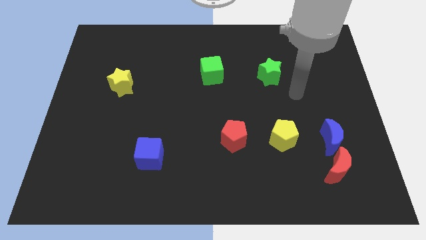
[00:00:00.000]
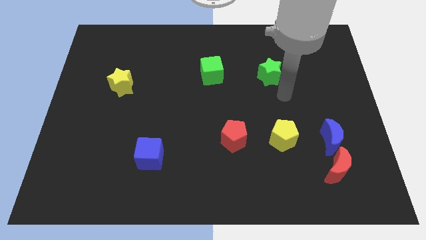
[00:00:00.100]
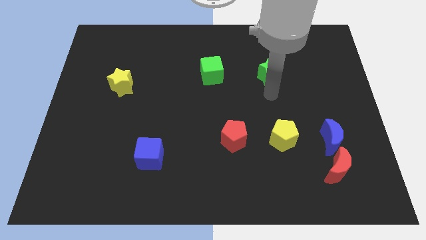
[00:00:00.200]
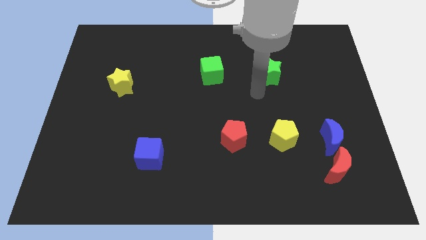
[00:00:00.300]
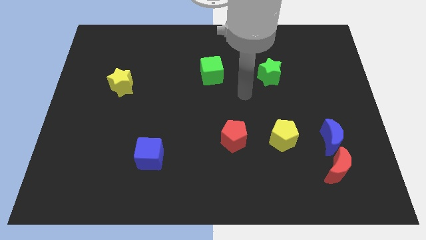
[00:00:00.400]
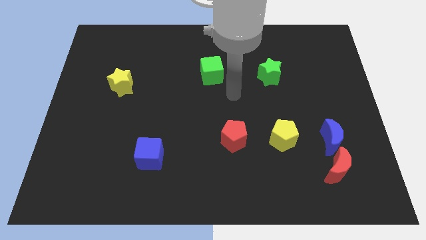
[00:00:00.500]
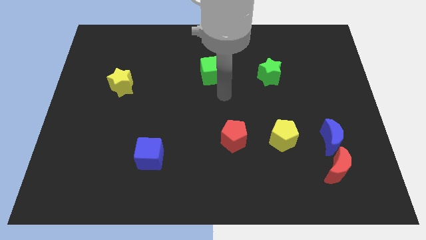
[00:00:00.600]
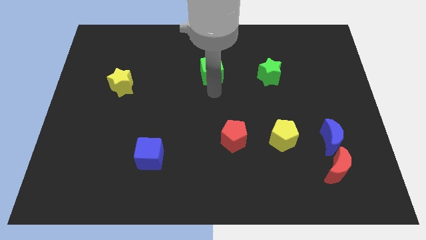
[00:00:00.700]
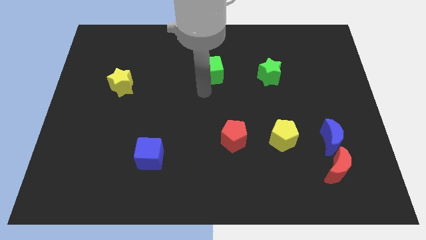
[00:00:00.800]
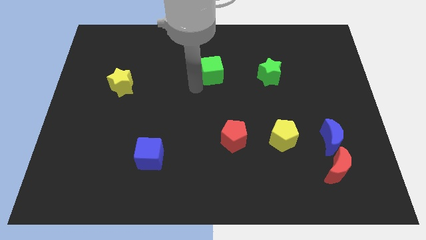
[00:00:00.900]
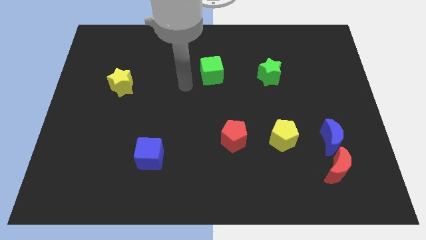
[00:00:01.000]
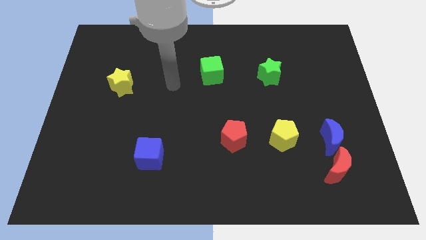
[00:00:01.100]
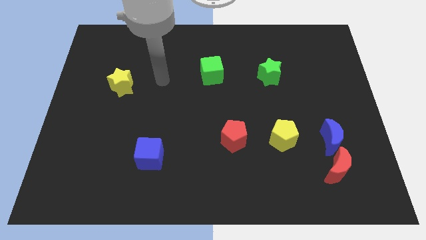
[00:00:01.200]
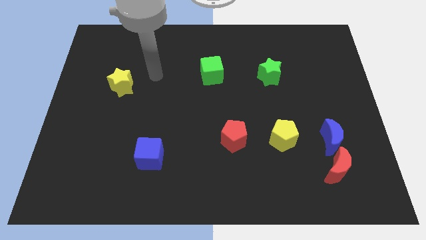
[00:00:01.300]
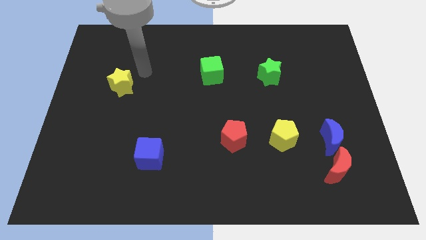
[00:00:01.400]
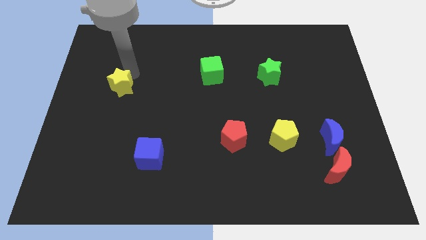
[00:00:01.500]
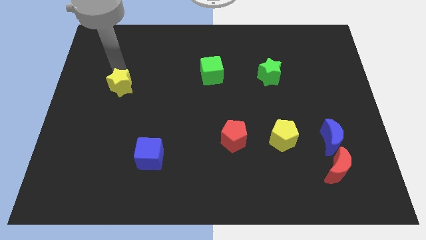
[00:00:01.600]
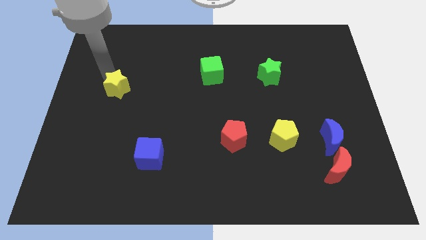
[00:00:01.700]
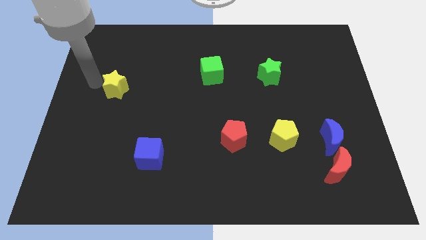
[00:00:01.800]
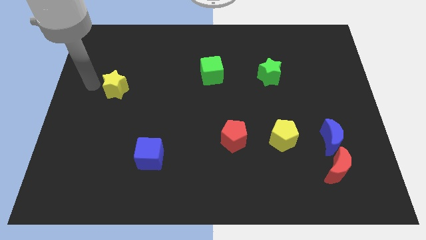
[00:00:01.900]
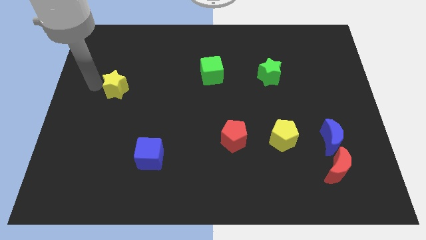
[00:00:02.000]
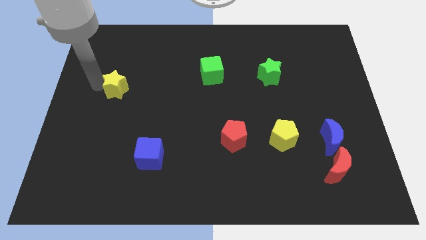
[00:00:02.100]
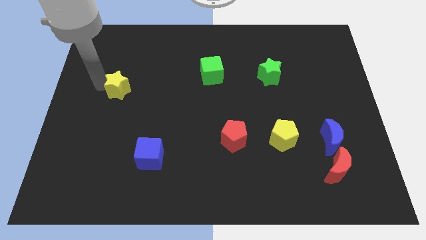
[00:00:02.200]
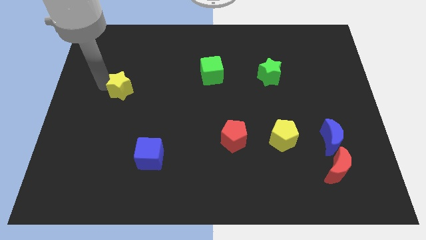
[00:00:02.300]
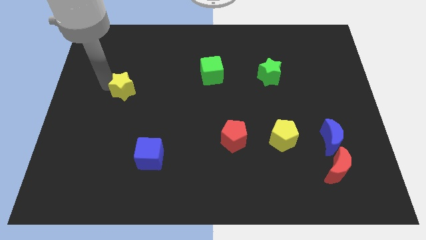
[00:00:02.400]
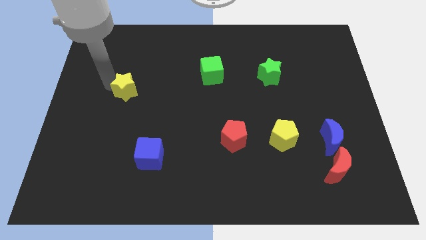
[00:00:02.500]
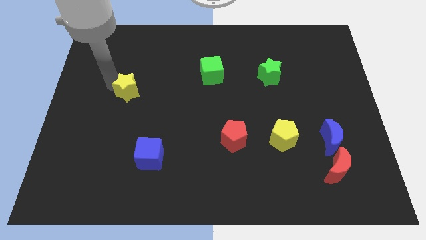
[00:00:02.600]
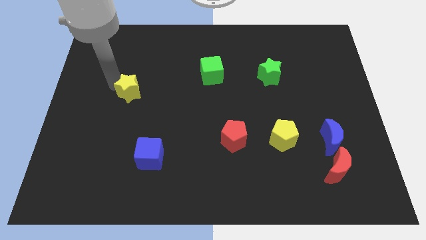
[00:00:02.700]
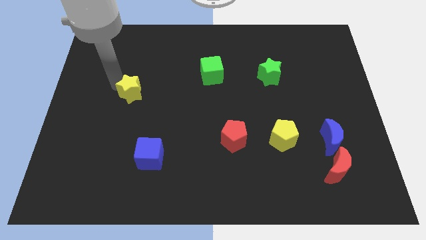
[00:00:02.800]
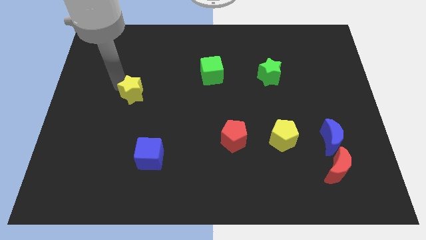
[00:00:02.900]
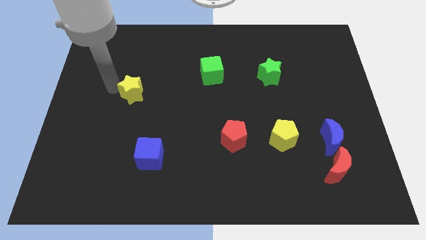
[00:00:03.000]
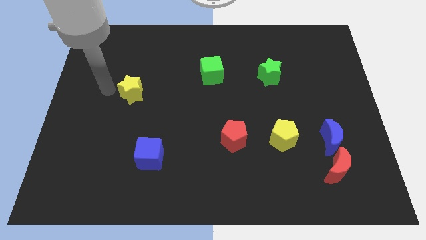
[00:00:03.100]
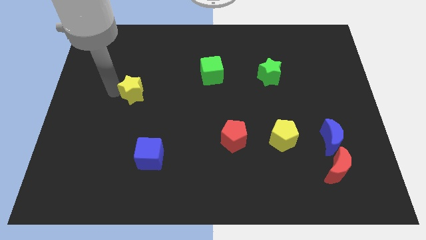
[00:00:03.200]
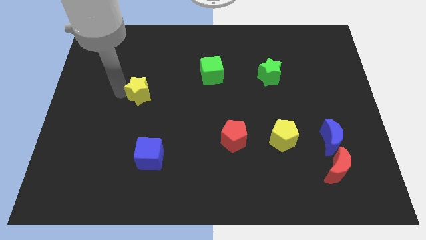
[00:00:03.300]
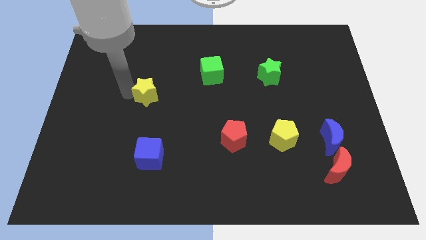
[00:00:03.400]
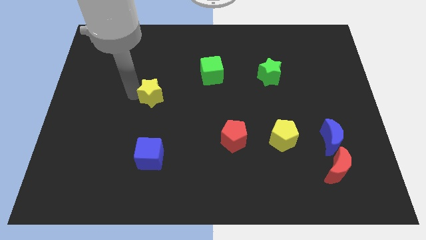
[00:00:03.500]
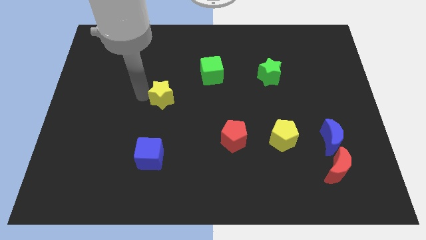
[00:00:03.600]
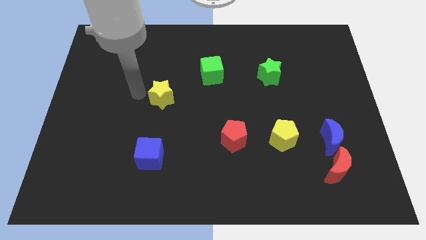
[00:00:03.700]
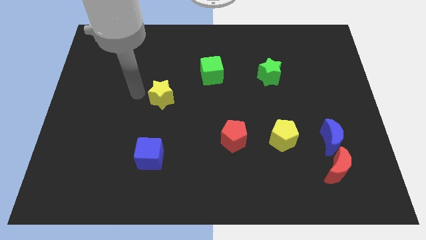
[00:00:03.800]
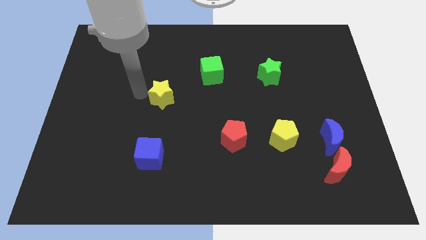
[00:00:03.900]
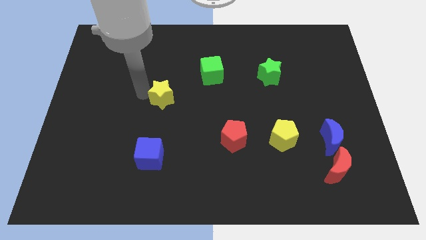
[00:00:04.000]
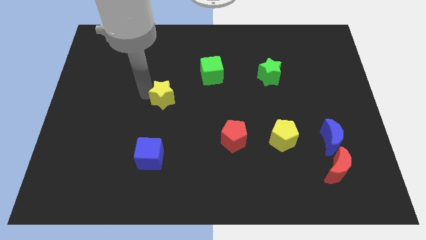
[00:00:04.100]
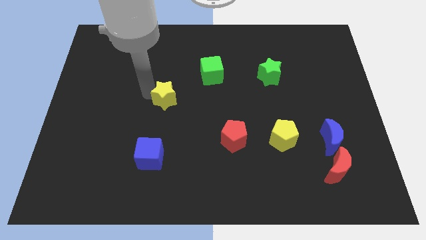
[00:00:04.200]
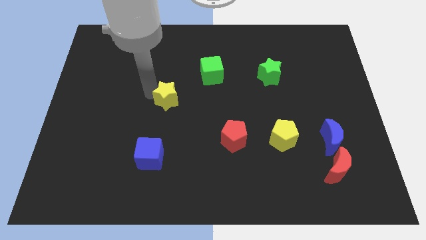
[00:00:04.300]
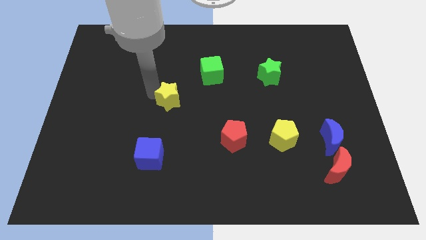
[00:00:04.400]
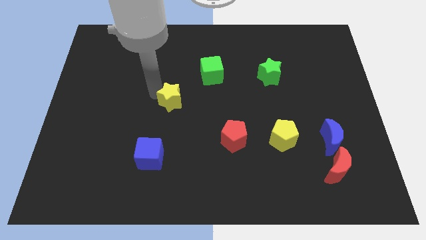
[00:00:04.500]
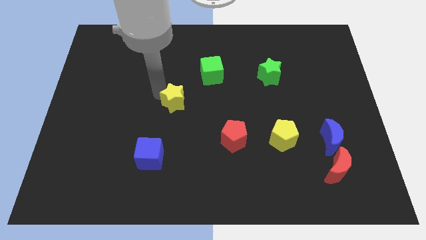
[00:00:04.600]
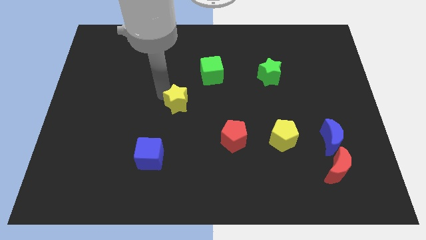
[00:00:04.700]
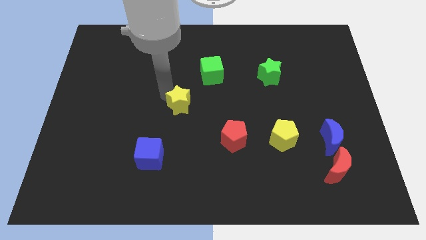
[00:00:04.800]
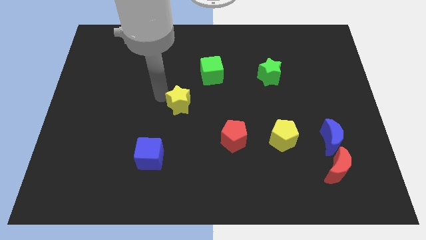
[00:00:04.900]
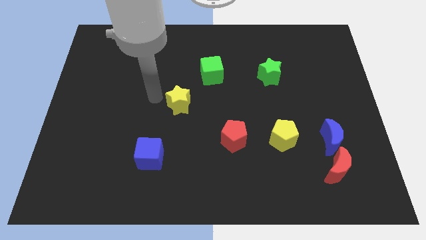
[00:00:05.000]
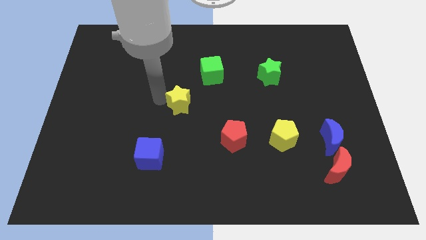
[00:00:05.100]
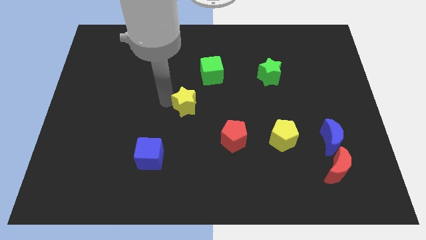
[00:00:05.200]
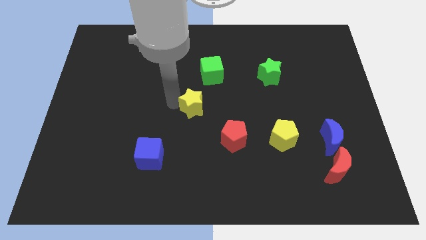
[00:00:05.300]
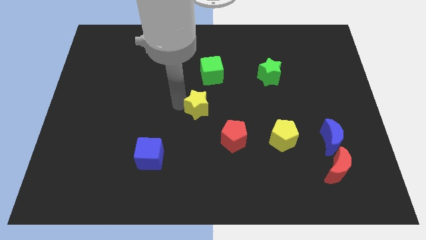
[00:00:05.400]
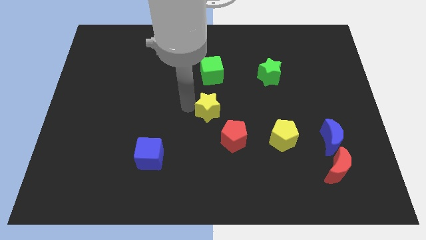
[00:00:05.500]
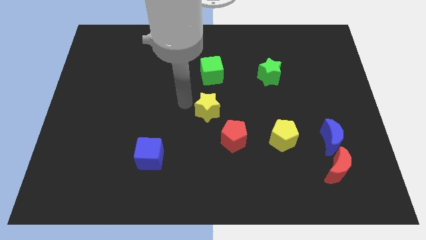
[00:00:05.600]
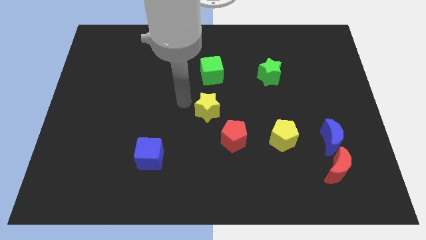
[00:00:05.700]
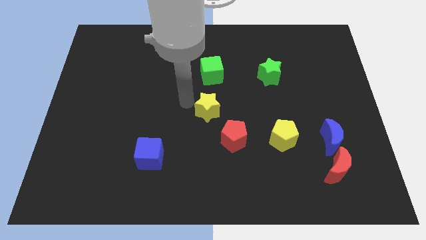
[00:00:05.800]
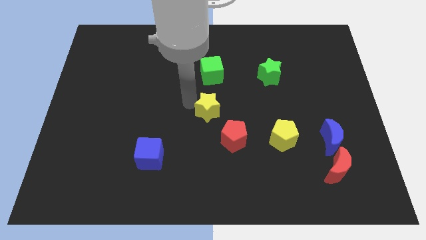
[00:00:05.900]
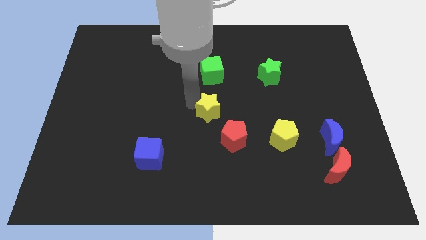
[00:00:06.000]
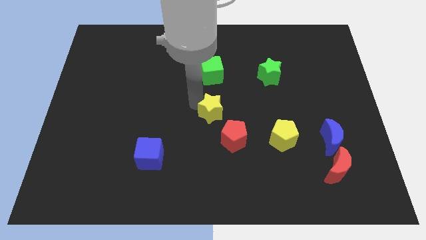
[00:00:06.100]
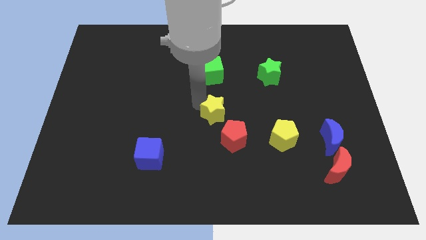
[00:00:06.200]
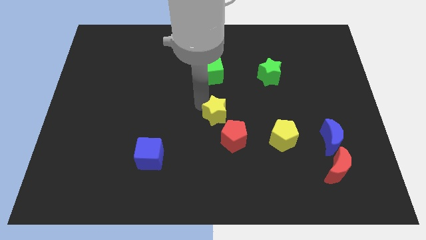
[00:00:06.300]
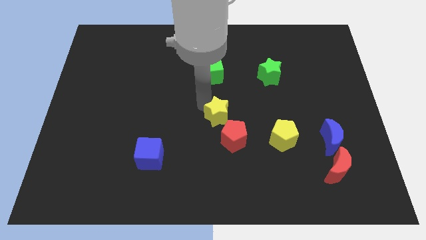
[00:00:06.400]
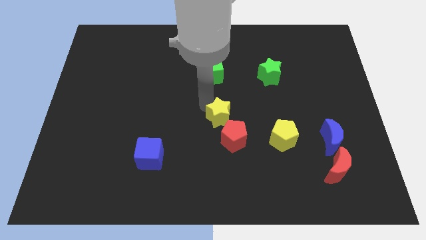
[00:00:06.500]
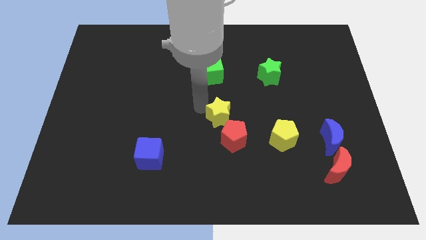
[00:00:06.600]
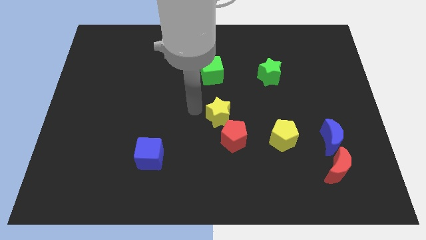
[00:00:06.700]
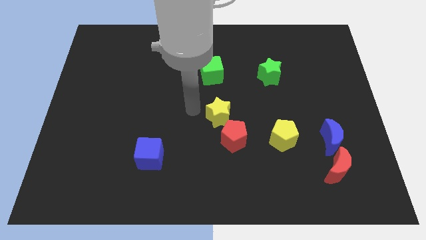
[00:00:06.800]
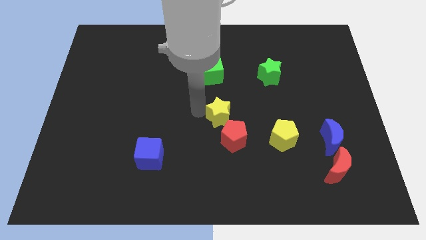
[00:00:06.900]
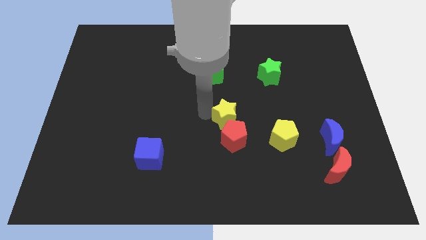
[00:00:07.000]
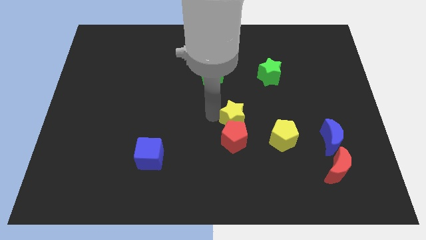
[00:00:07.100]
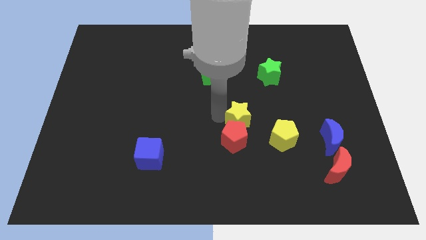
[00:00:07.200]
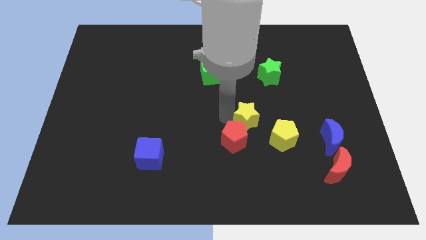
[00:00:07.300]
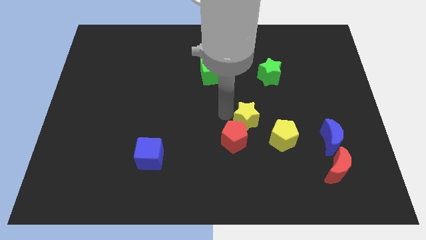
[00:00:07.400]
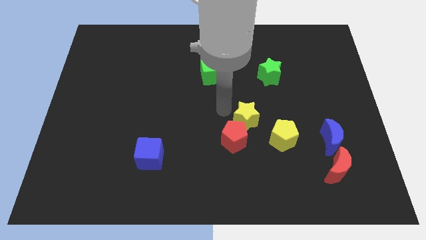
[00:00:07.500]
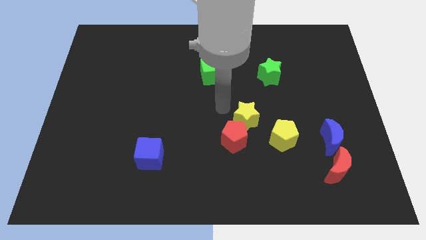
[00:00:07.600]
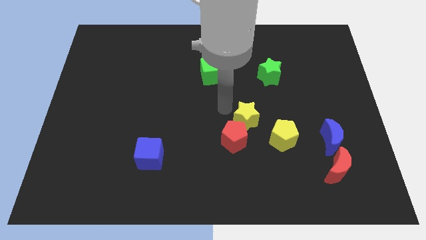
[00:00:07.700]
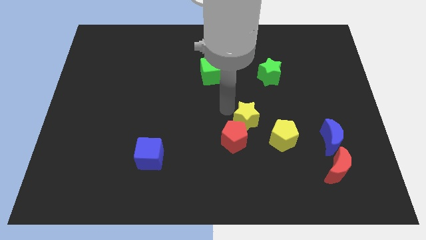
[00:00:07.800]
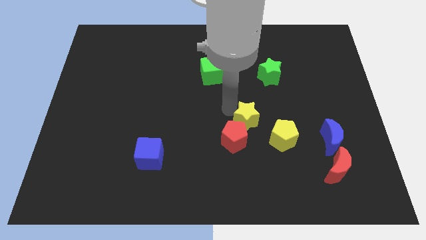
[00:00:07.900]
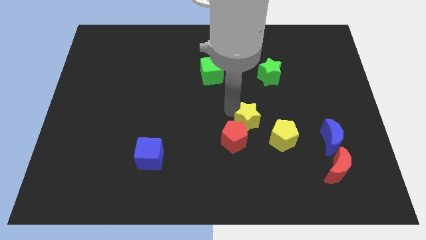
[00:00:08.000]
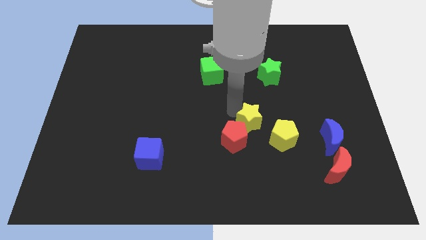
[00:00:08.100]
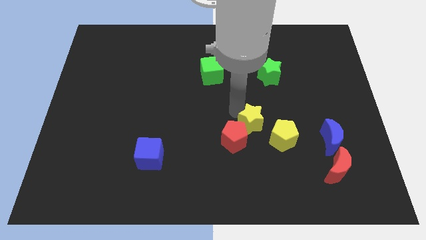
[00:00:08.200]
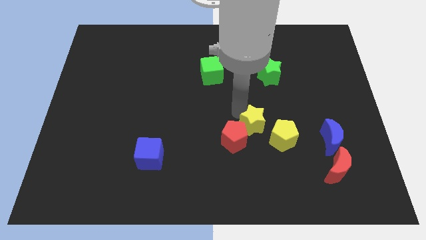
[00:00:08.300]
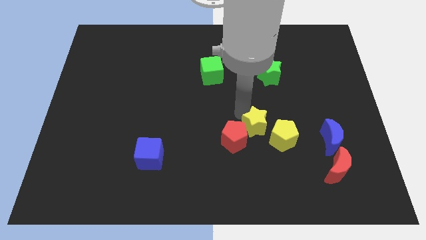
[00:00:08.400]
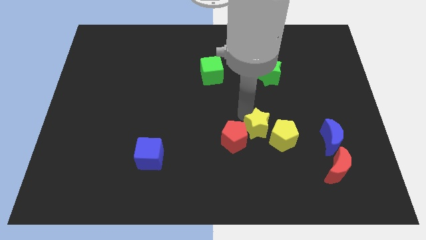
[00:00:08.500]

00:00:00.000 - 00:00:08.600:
slide the yellow star to the yellow pentagon
